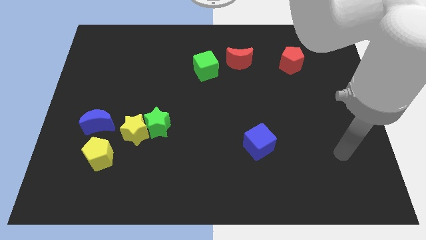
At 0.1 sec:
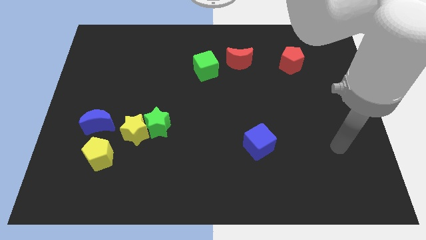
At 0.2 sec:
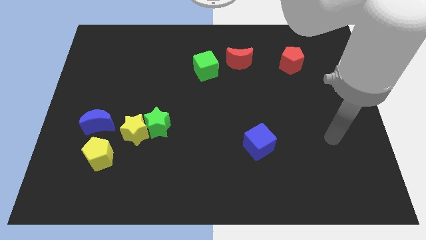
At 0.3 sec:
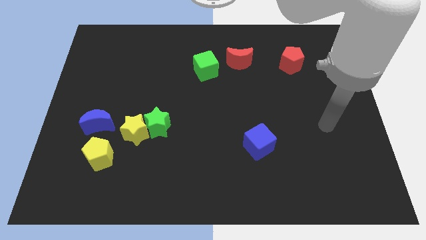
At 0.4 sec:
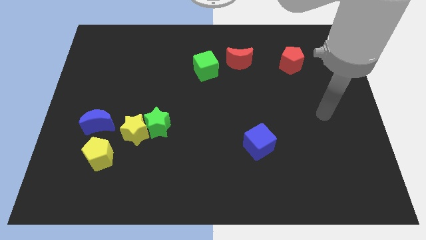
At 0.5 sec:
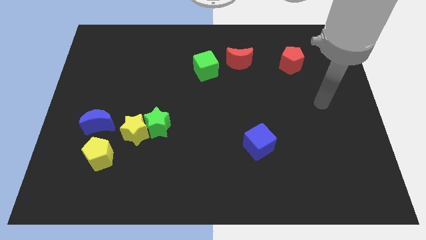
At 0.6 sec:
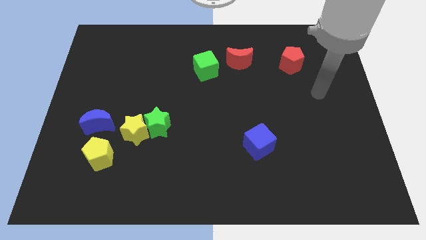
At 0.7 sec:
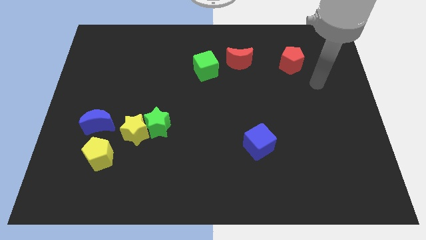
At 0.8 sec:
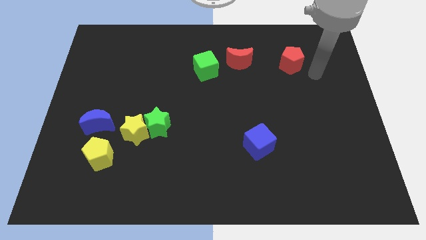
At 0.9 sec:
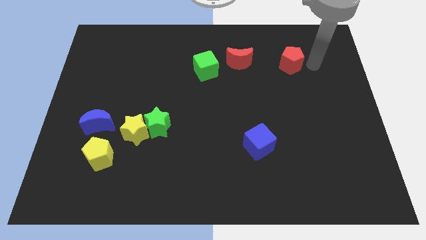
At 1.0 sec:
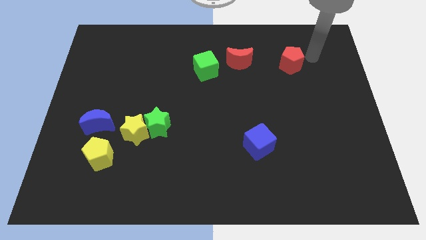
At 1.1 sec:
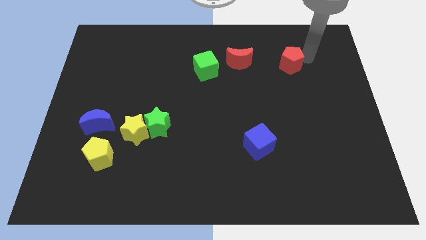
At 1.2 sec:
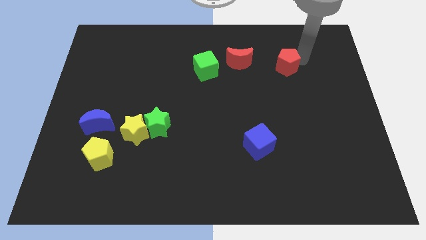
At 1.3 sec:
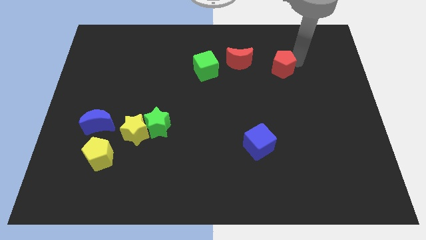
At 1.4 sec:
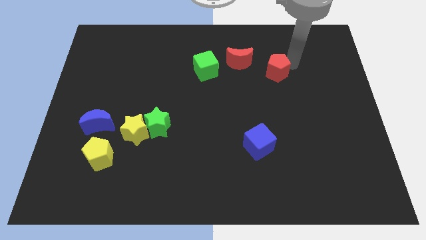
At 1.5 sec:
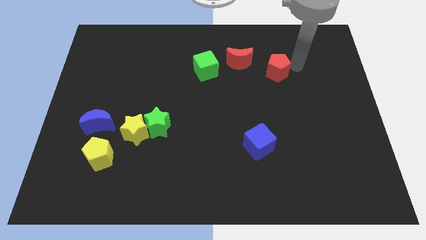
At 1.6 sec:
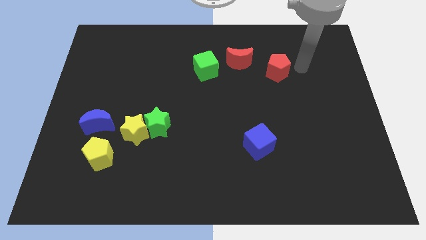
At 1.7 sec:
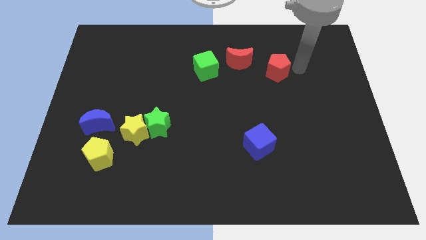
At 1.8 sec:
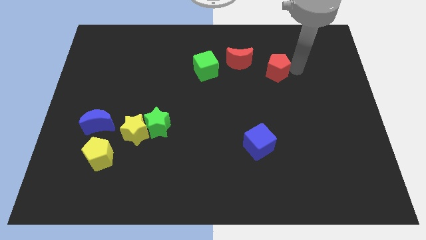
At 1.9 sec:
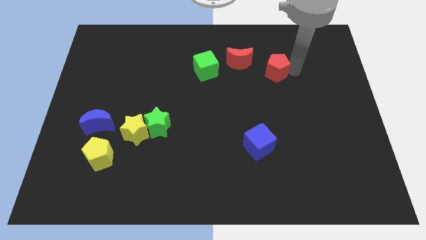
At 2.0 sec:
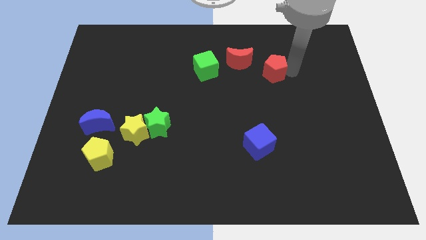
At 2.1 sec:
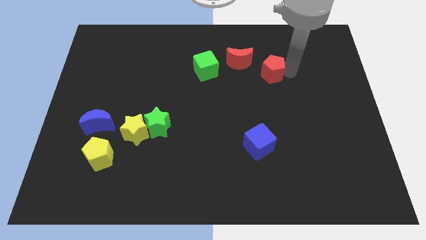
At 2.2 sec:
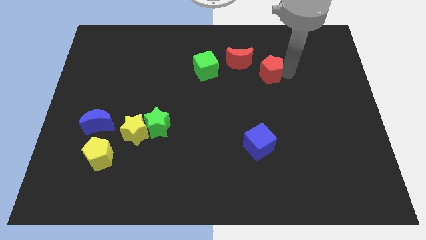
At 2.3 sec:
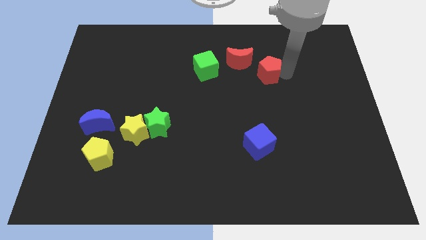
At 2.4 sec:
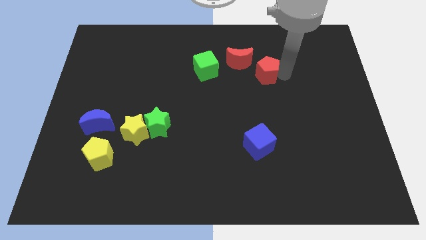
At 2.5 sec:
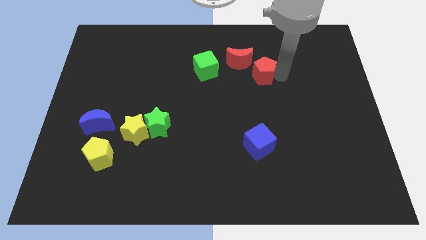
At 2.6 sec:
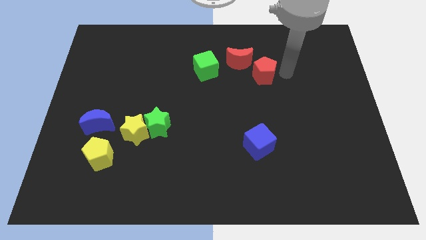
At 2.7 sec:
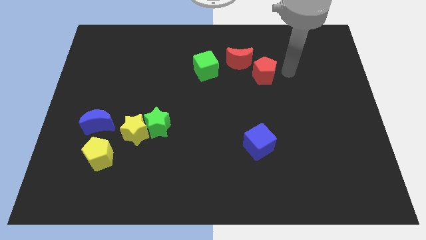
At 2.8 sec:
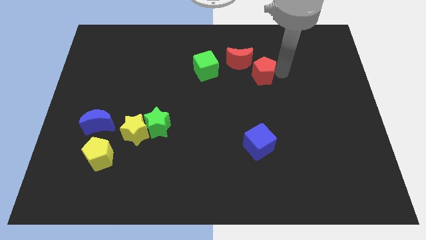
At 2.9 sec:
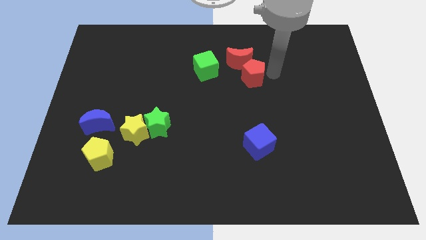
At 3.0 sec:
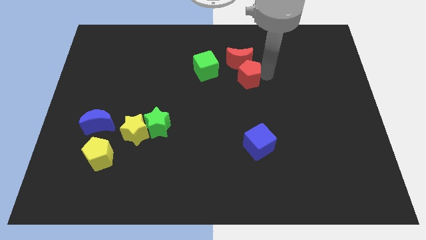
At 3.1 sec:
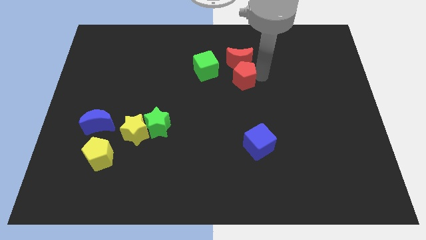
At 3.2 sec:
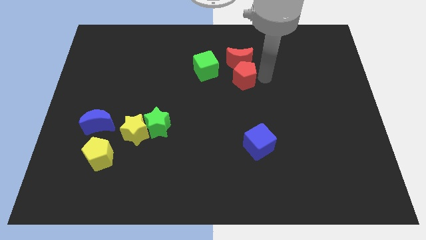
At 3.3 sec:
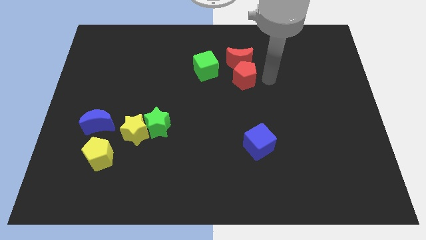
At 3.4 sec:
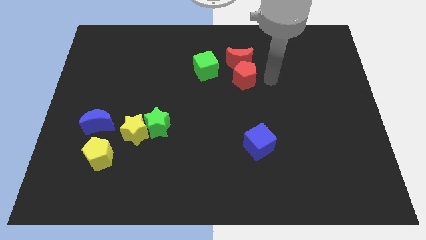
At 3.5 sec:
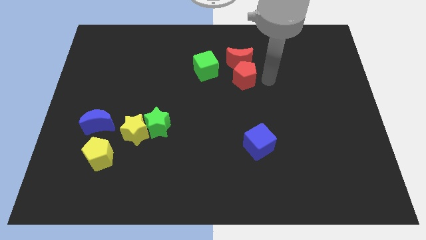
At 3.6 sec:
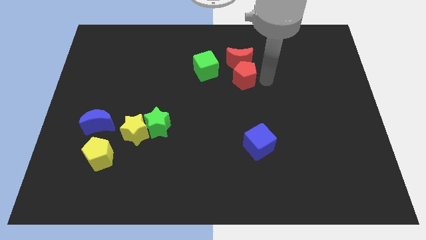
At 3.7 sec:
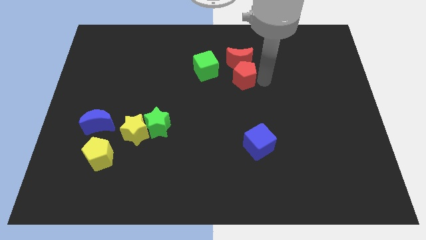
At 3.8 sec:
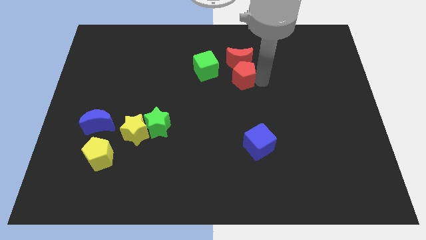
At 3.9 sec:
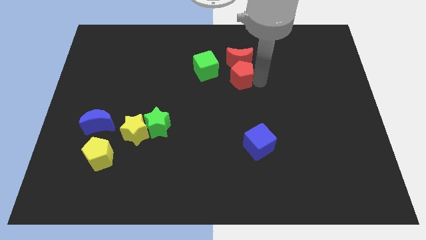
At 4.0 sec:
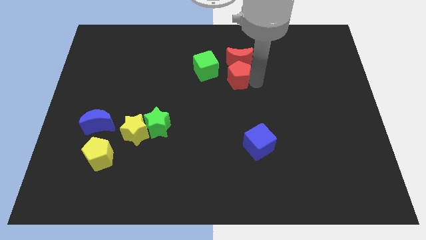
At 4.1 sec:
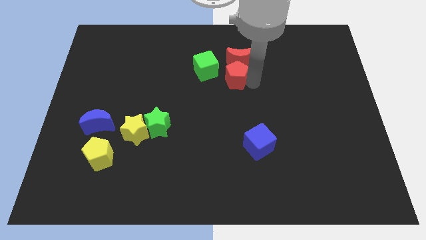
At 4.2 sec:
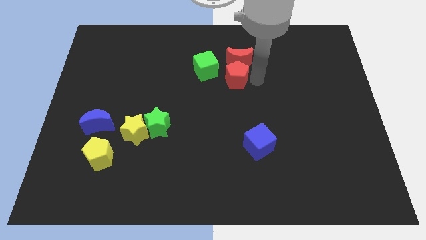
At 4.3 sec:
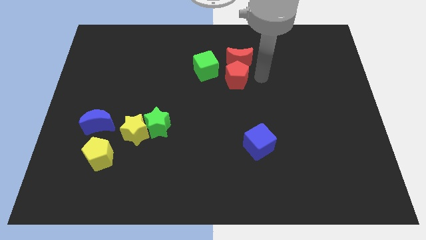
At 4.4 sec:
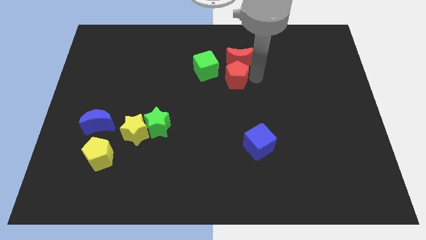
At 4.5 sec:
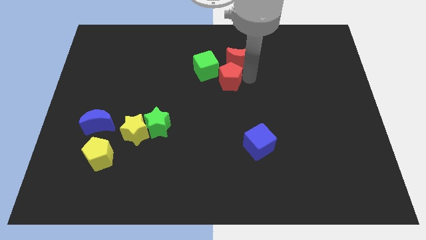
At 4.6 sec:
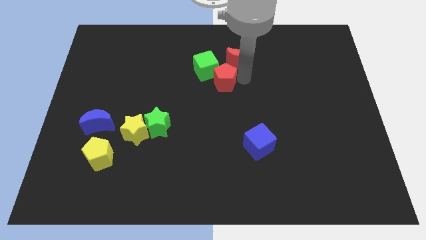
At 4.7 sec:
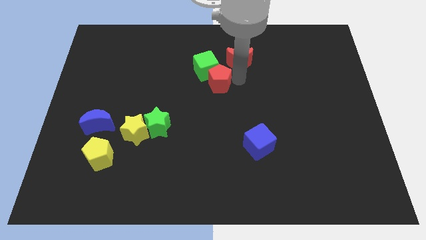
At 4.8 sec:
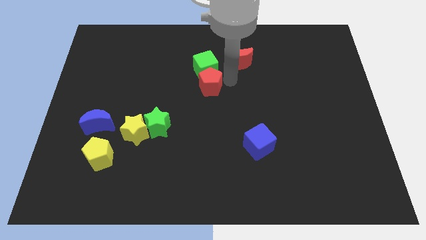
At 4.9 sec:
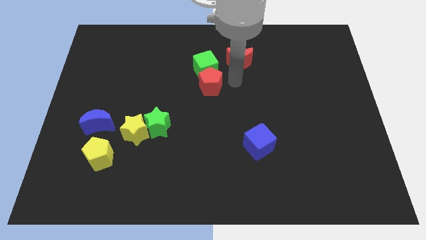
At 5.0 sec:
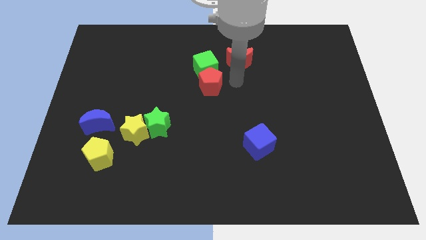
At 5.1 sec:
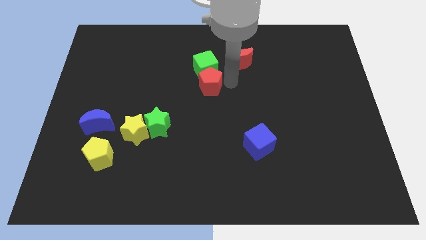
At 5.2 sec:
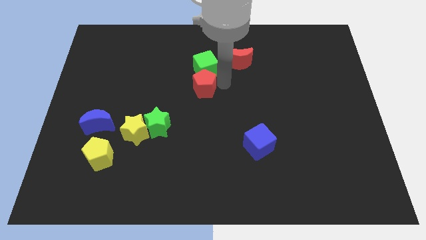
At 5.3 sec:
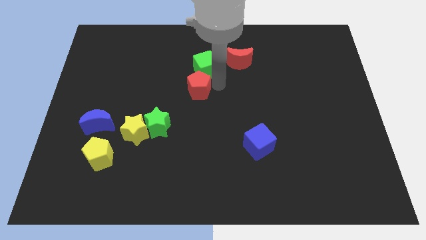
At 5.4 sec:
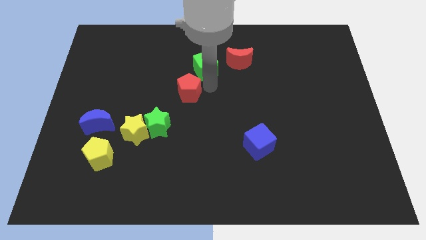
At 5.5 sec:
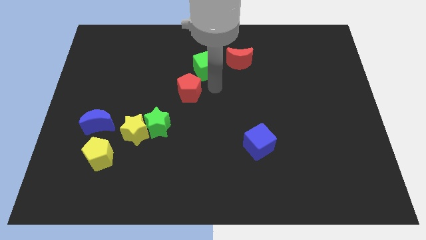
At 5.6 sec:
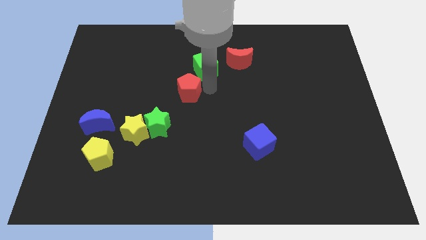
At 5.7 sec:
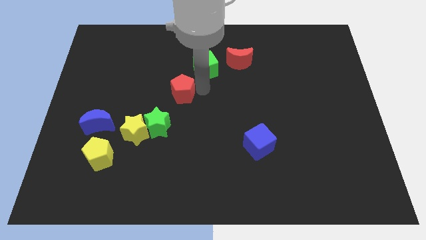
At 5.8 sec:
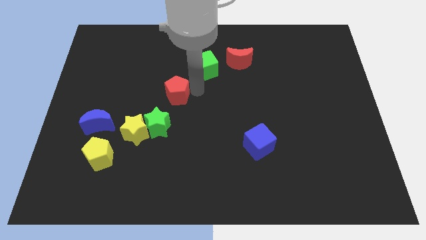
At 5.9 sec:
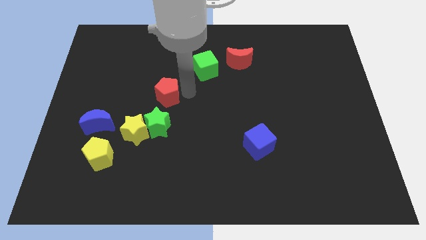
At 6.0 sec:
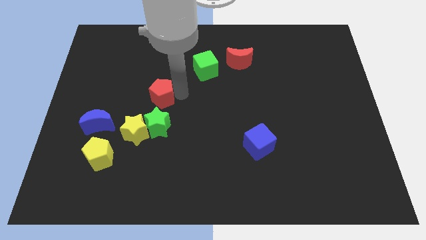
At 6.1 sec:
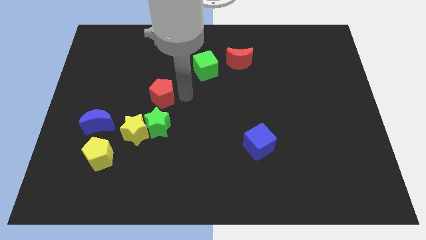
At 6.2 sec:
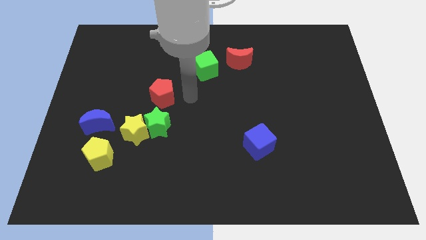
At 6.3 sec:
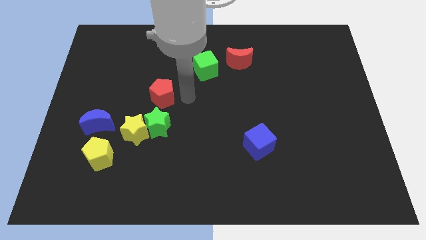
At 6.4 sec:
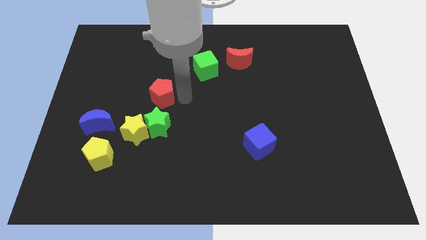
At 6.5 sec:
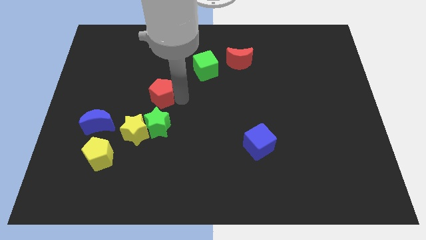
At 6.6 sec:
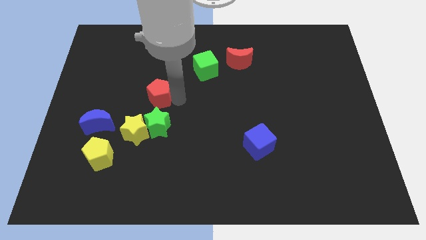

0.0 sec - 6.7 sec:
move the red pentagon to the top side of the yellow star
